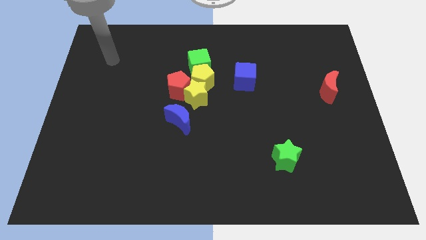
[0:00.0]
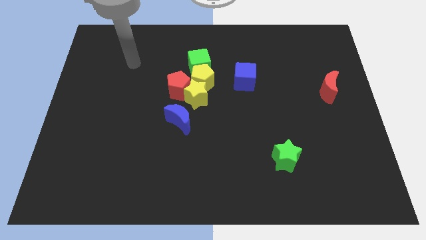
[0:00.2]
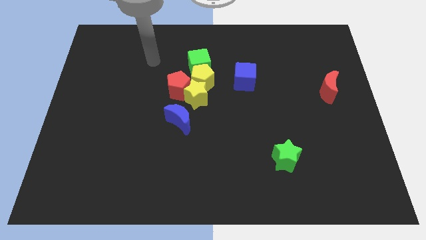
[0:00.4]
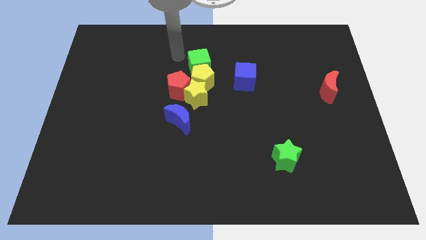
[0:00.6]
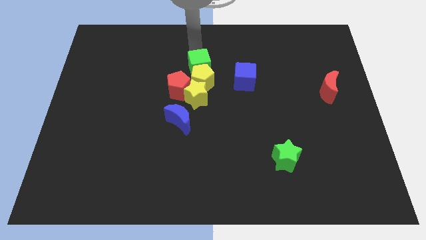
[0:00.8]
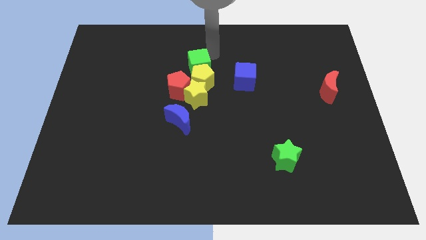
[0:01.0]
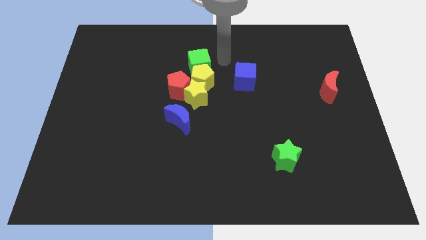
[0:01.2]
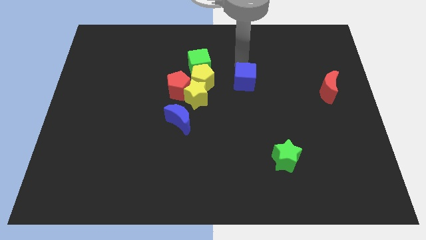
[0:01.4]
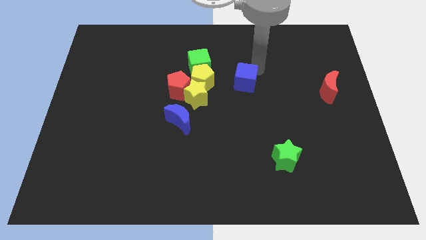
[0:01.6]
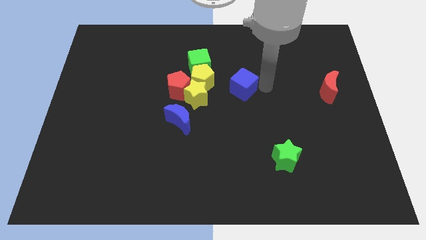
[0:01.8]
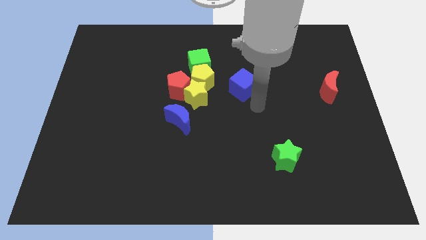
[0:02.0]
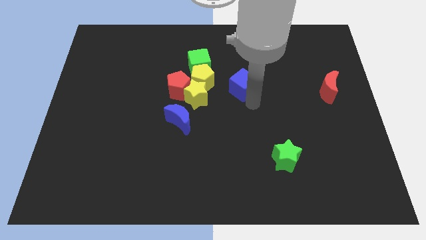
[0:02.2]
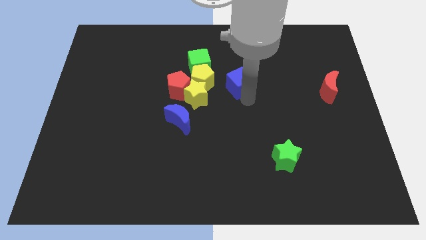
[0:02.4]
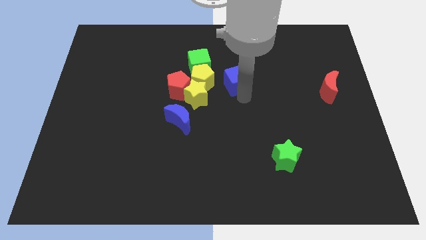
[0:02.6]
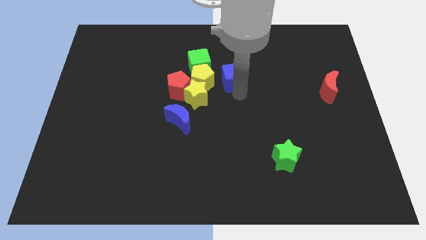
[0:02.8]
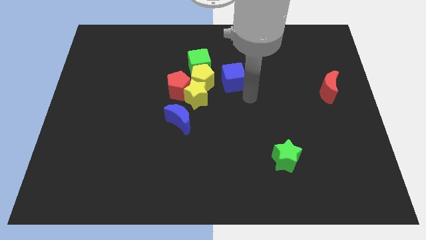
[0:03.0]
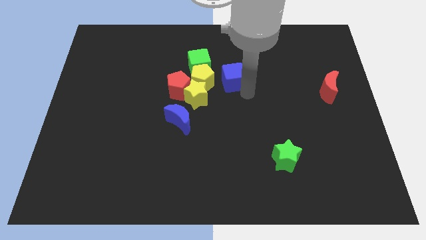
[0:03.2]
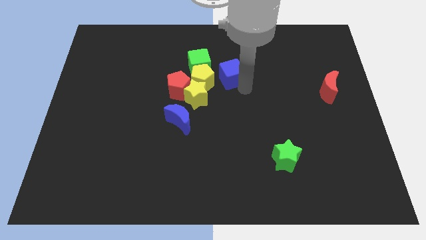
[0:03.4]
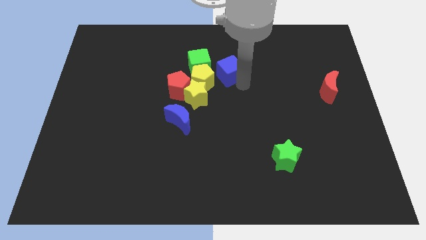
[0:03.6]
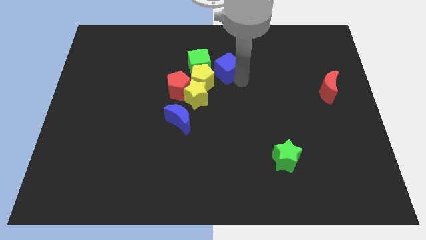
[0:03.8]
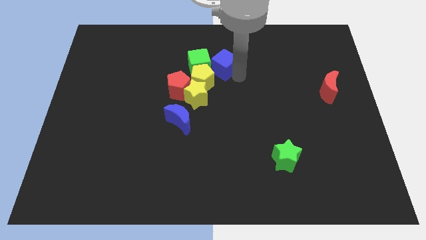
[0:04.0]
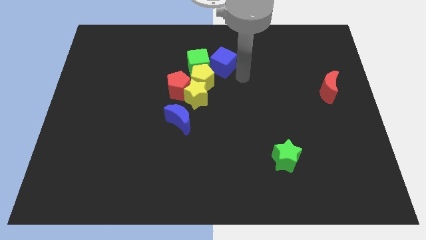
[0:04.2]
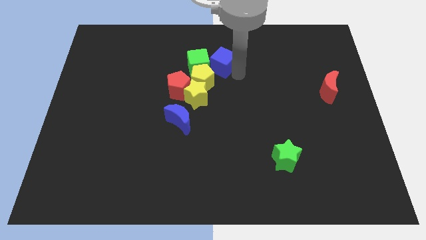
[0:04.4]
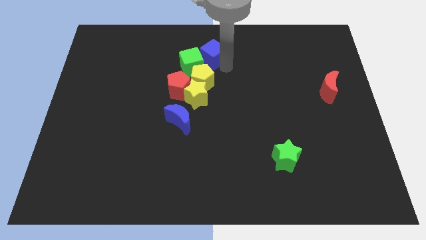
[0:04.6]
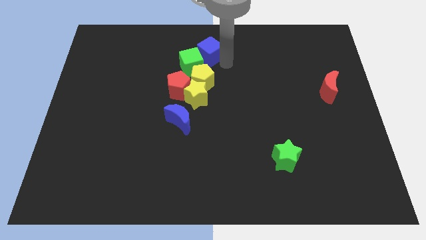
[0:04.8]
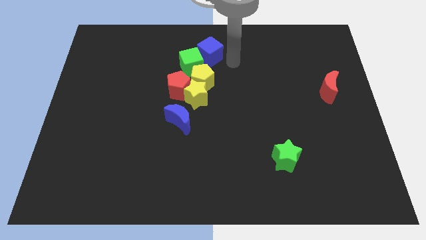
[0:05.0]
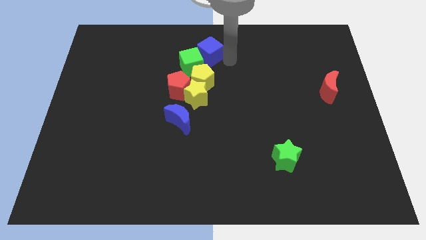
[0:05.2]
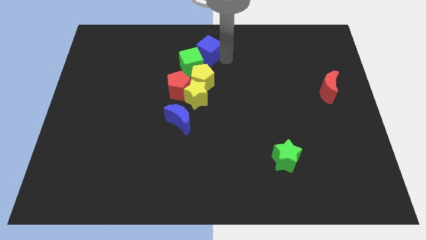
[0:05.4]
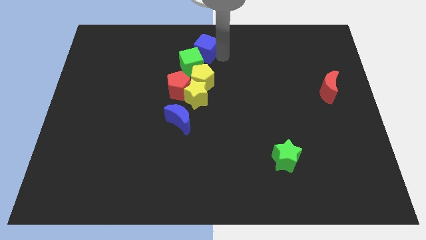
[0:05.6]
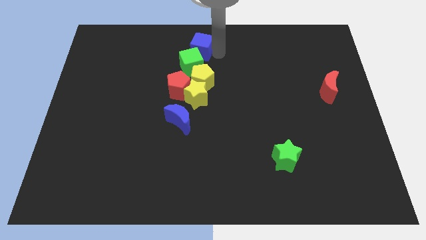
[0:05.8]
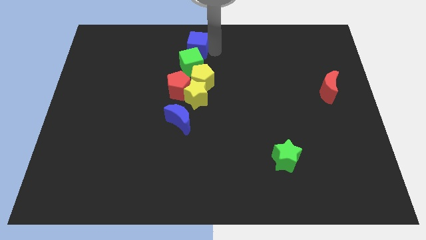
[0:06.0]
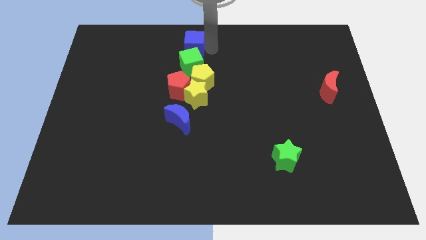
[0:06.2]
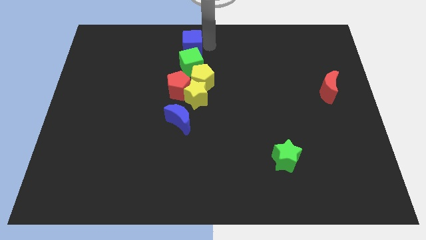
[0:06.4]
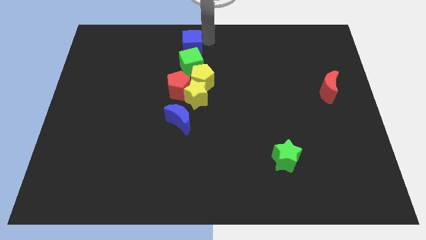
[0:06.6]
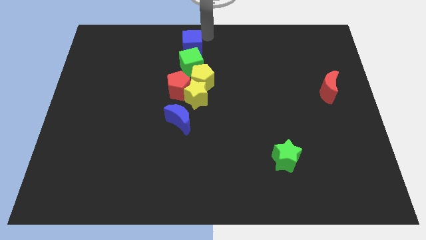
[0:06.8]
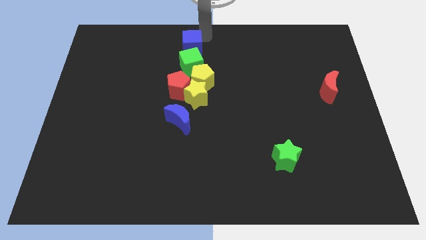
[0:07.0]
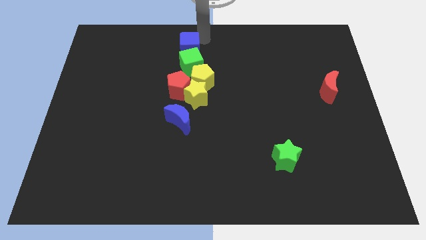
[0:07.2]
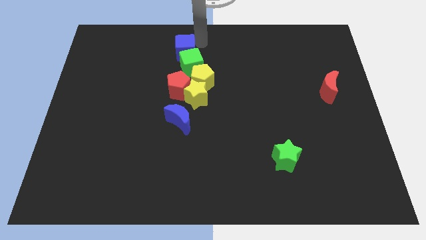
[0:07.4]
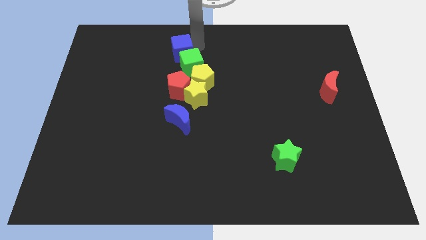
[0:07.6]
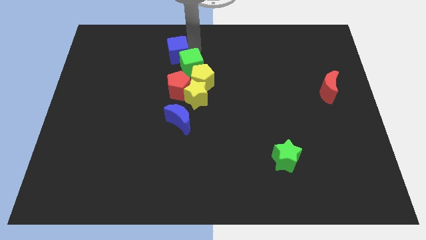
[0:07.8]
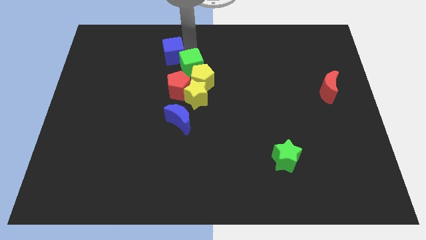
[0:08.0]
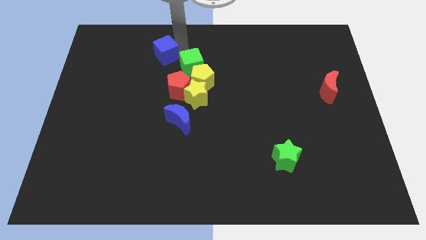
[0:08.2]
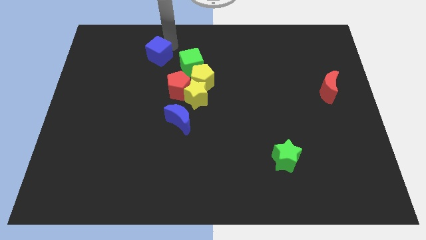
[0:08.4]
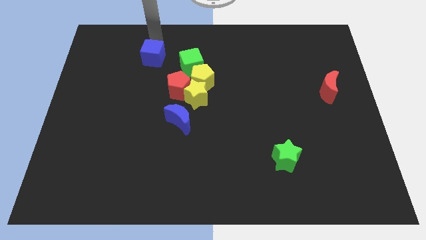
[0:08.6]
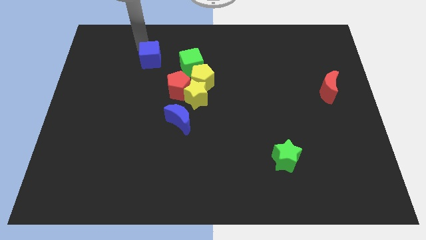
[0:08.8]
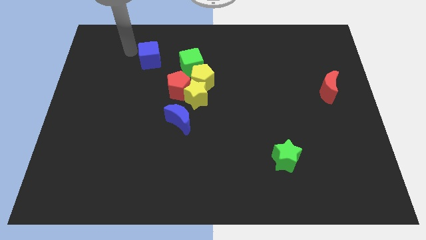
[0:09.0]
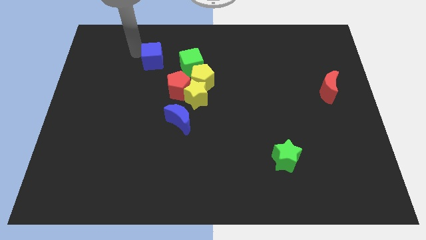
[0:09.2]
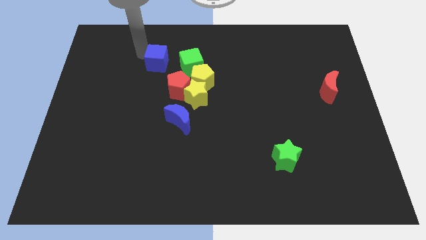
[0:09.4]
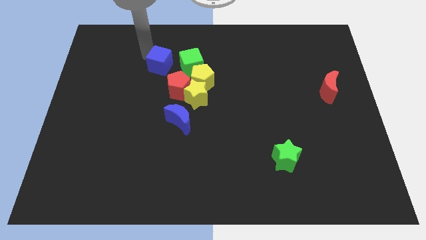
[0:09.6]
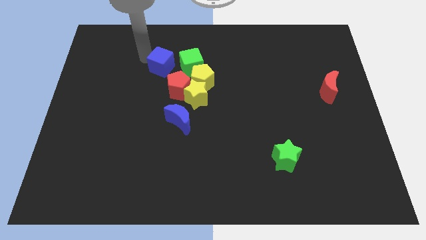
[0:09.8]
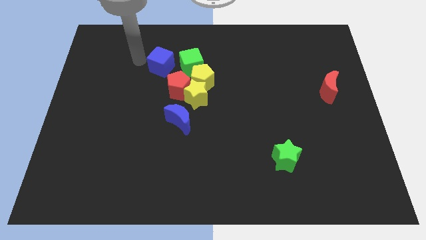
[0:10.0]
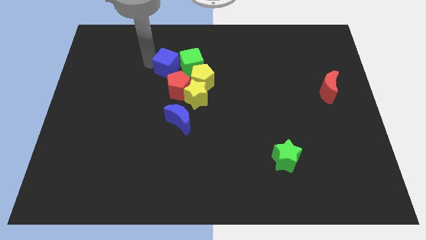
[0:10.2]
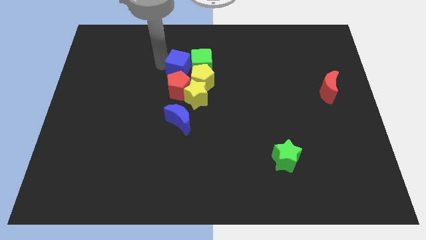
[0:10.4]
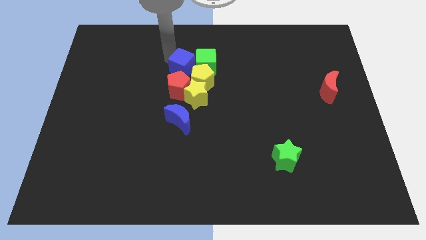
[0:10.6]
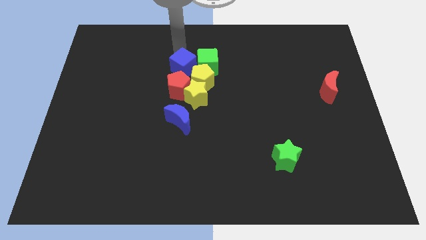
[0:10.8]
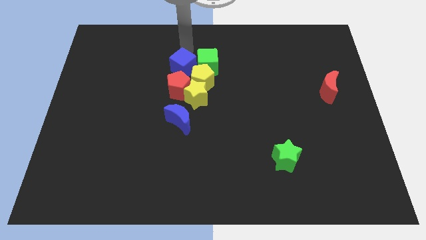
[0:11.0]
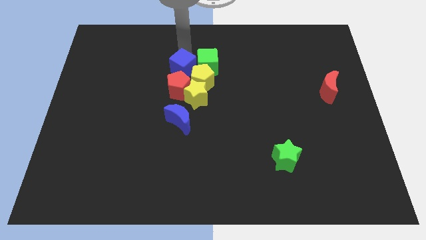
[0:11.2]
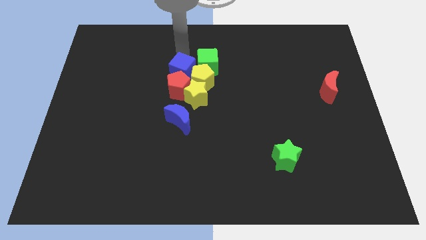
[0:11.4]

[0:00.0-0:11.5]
put the blue cube next to the red pentagon

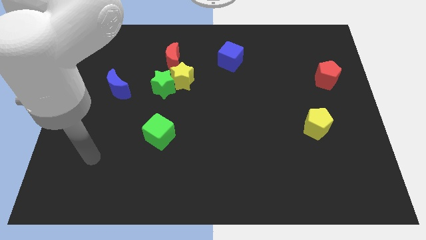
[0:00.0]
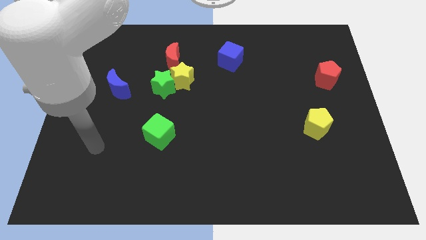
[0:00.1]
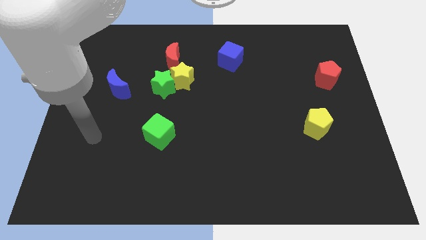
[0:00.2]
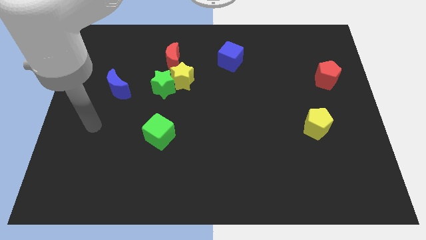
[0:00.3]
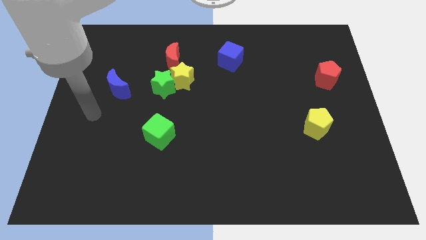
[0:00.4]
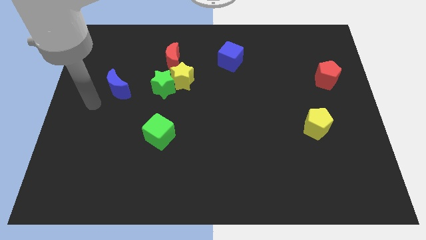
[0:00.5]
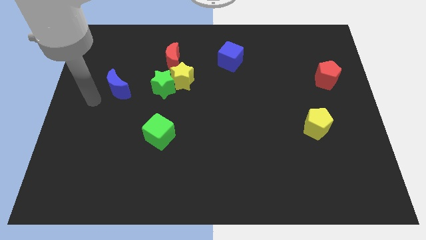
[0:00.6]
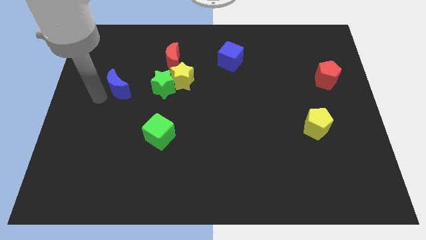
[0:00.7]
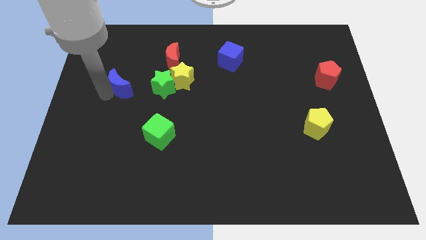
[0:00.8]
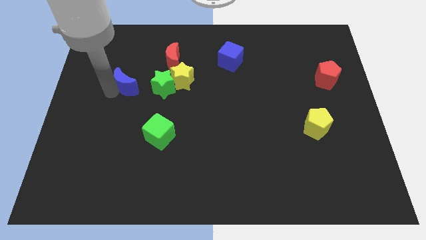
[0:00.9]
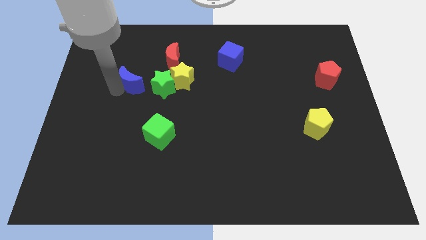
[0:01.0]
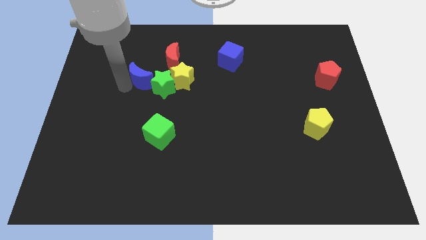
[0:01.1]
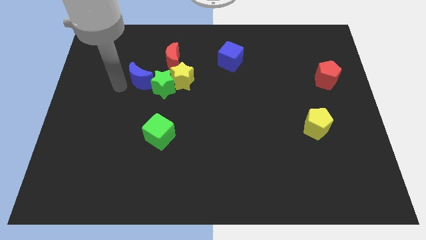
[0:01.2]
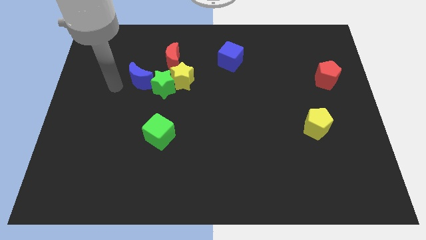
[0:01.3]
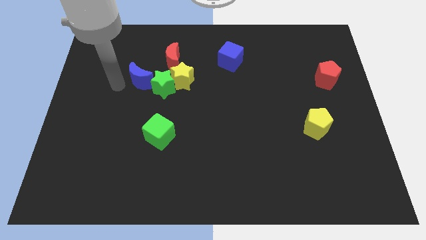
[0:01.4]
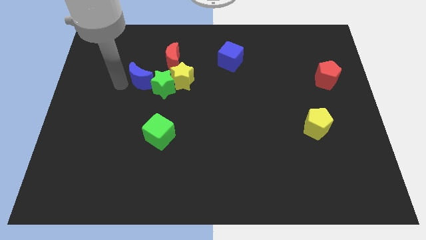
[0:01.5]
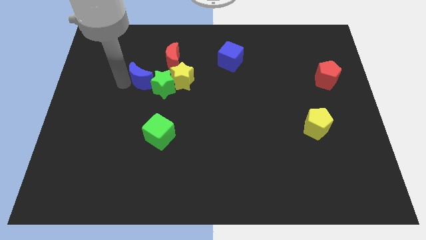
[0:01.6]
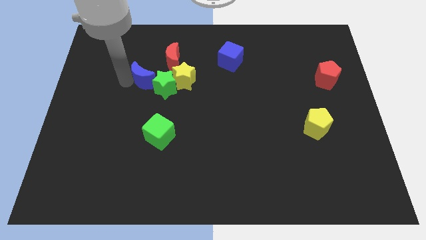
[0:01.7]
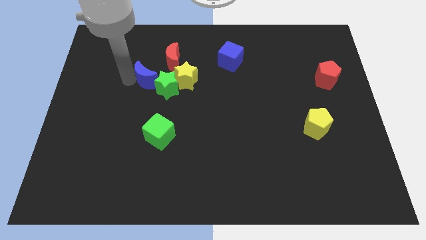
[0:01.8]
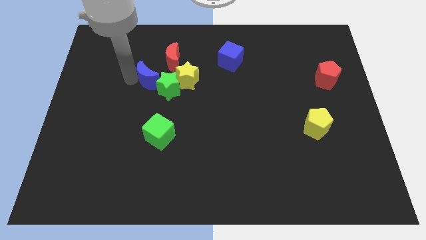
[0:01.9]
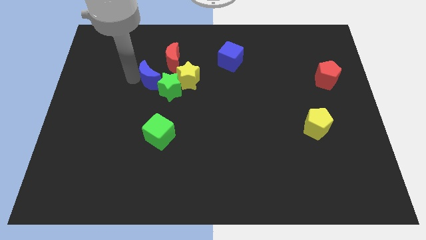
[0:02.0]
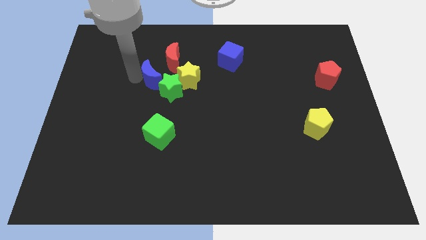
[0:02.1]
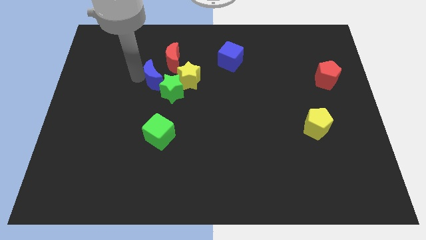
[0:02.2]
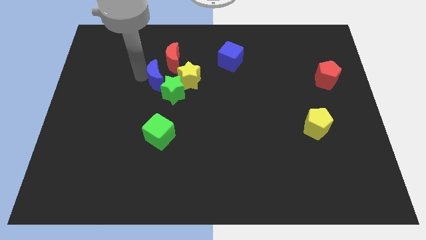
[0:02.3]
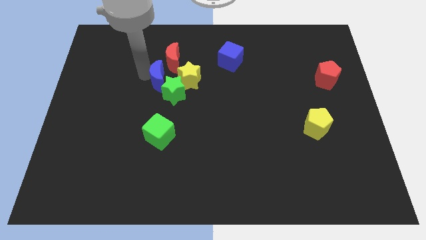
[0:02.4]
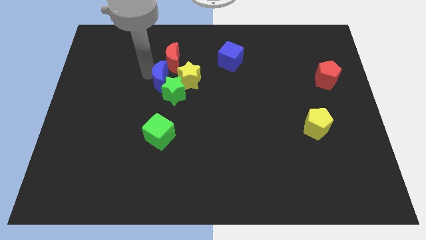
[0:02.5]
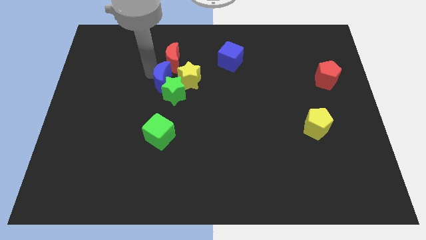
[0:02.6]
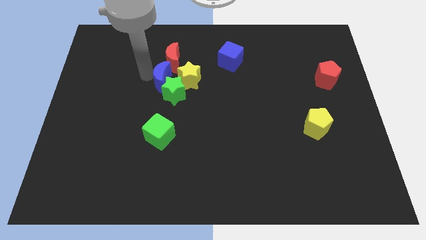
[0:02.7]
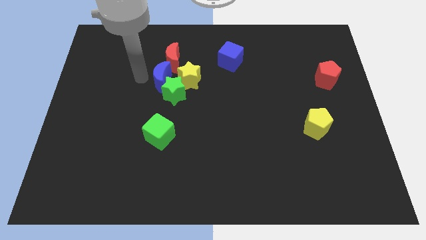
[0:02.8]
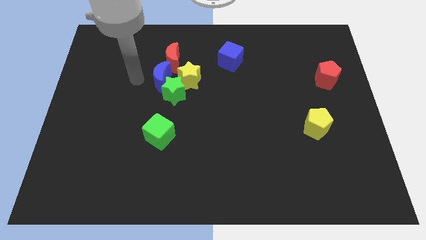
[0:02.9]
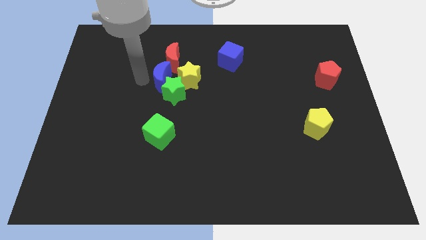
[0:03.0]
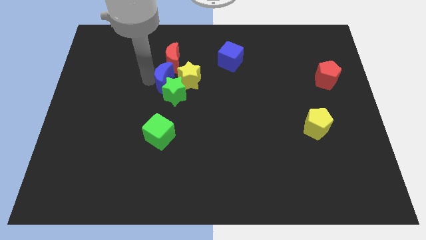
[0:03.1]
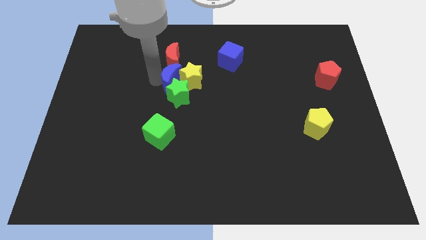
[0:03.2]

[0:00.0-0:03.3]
move the blue moon next to the yellow star
